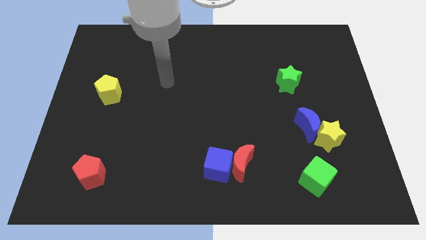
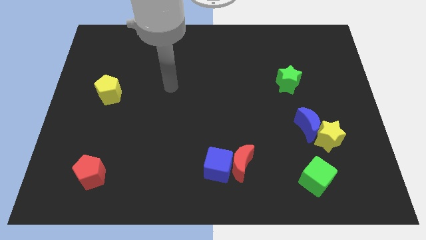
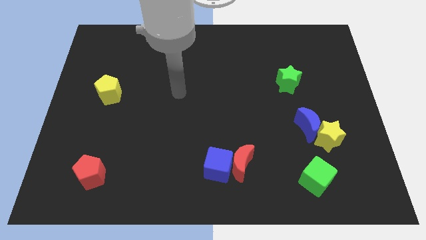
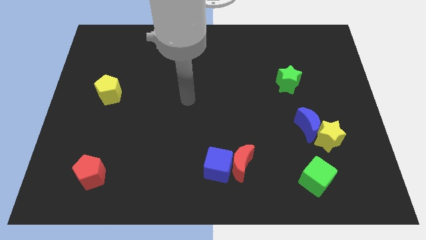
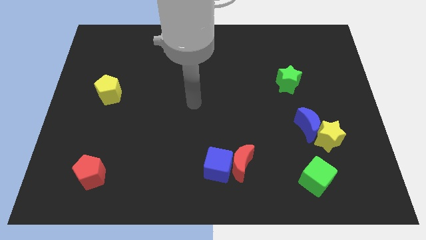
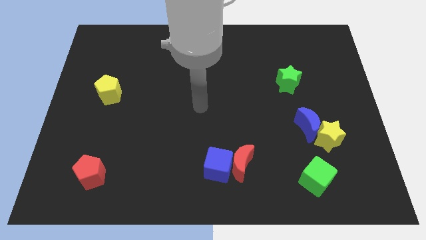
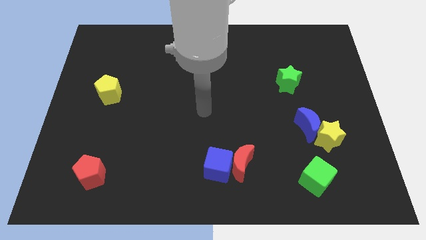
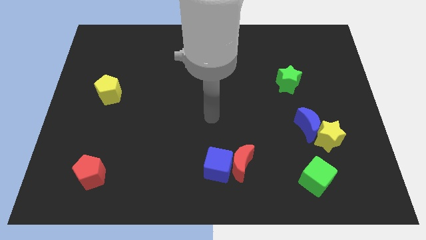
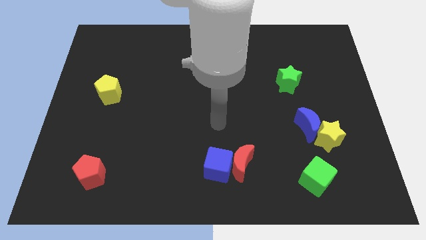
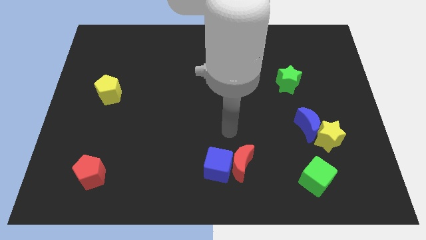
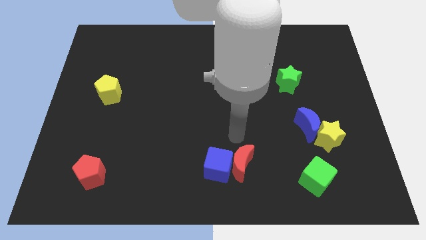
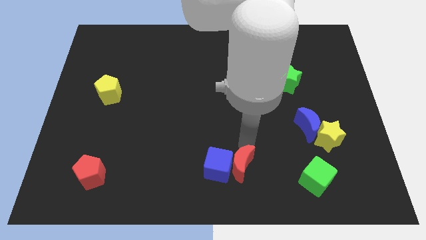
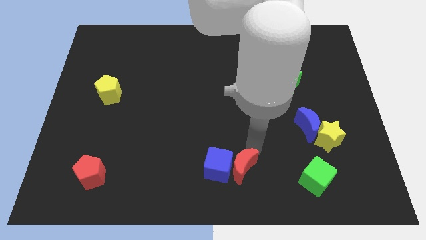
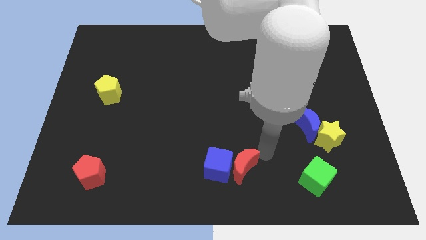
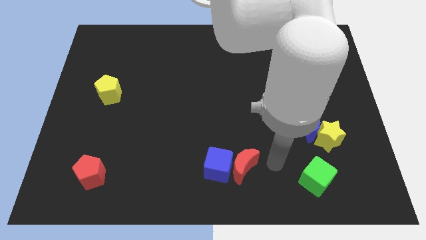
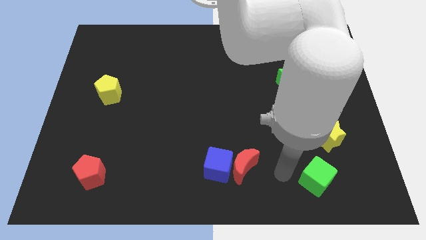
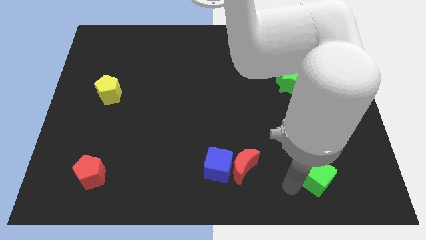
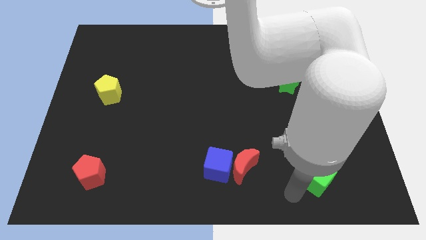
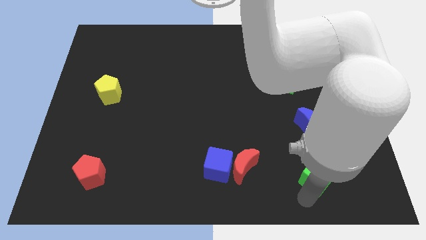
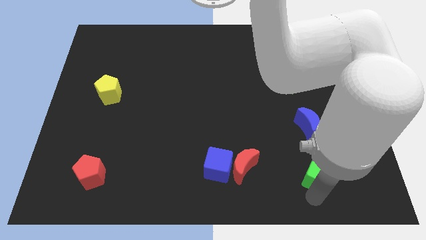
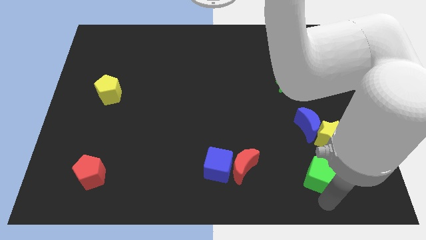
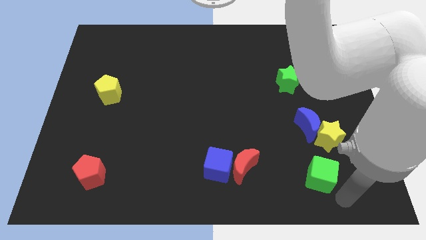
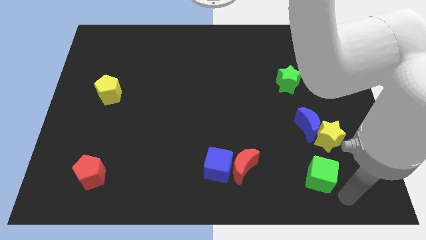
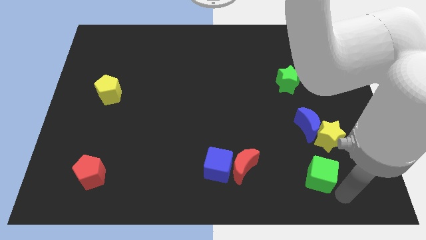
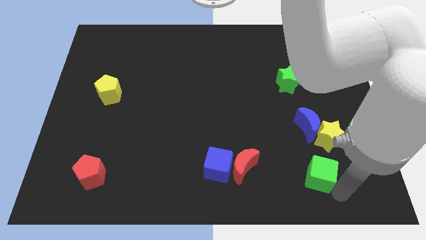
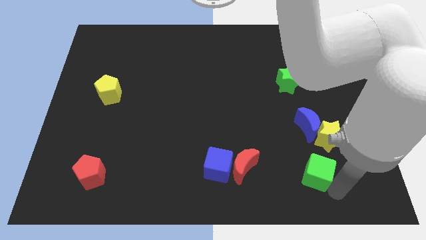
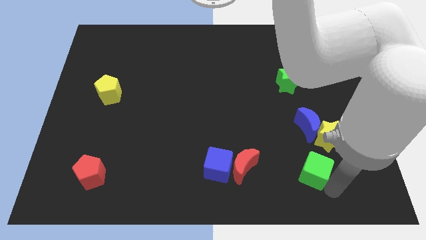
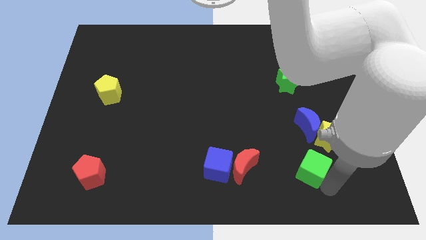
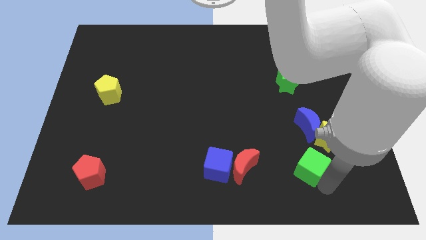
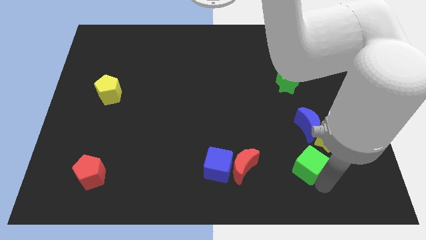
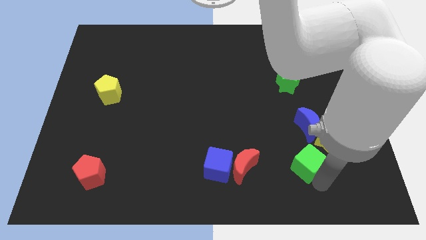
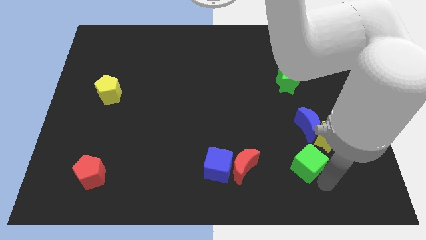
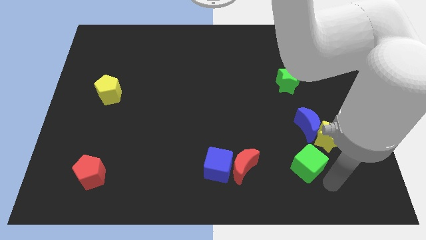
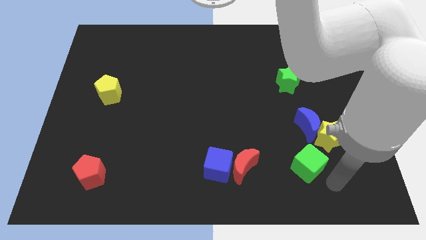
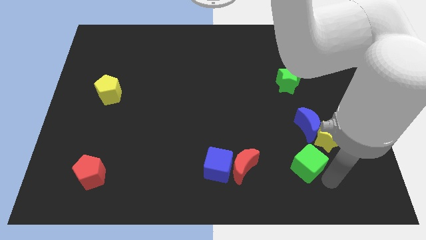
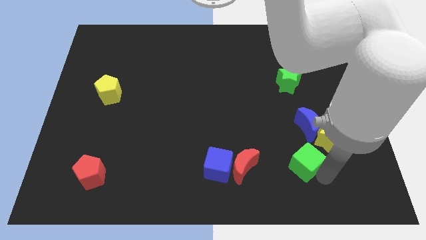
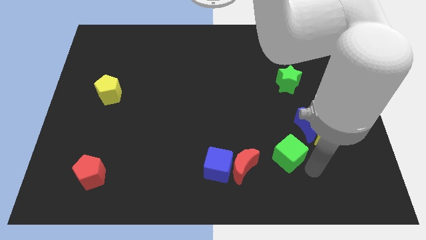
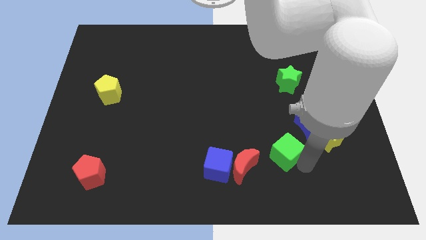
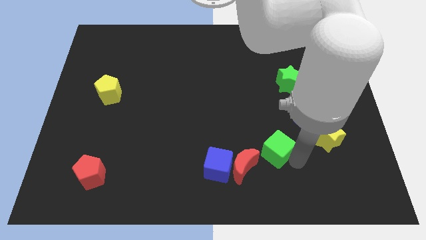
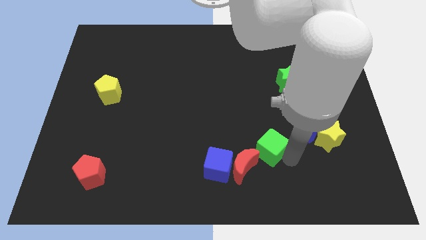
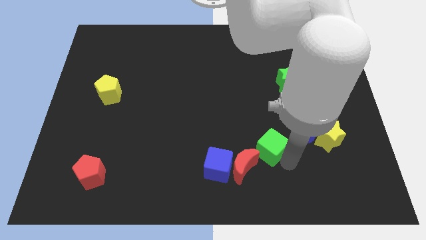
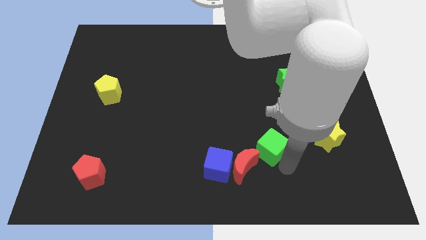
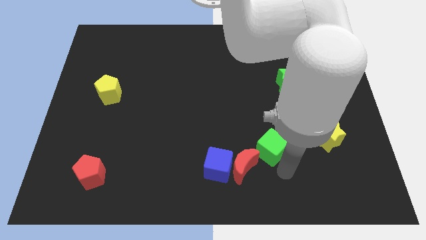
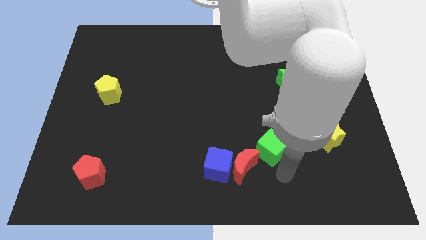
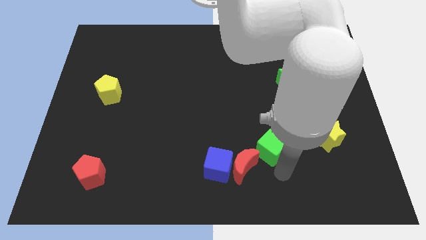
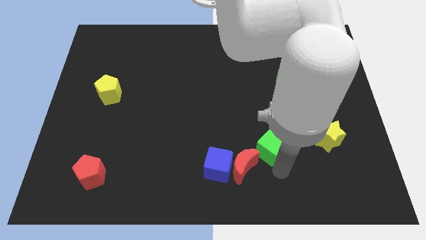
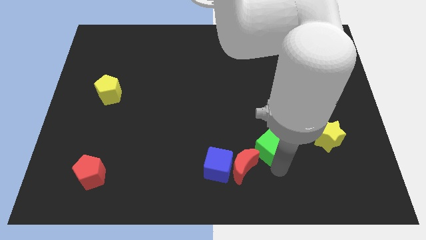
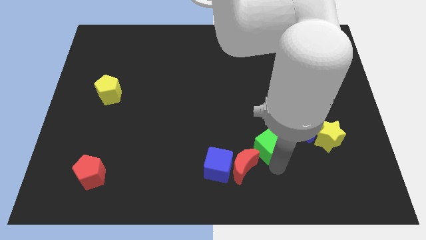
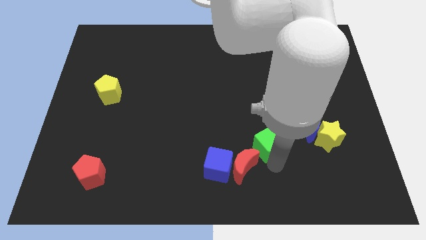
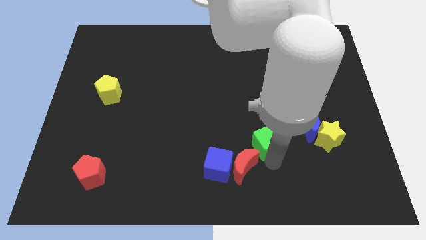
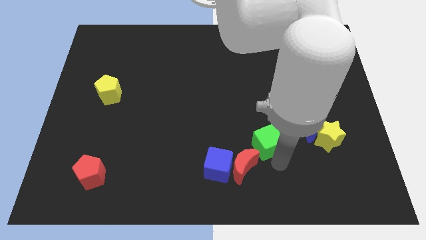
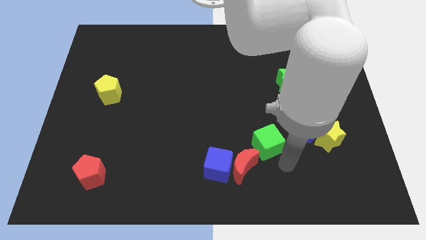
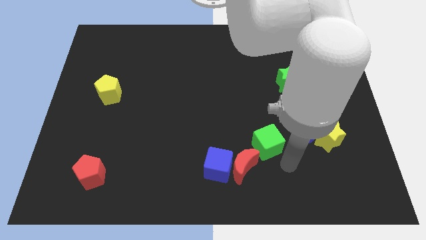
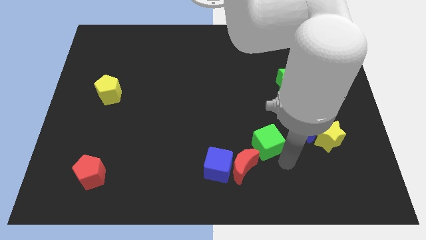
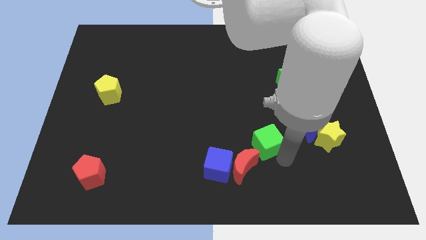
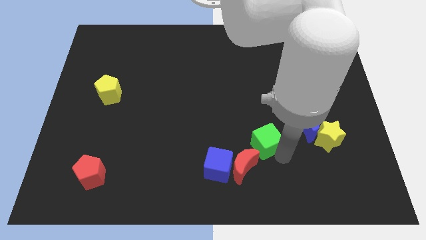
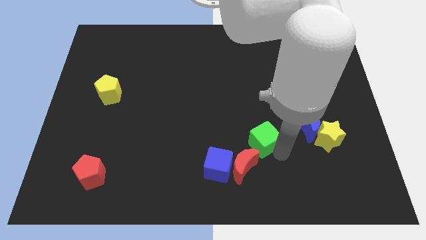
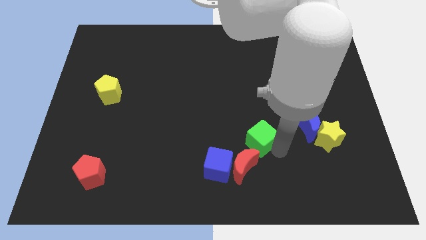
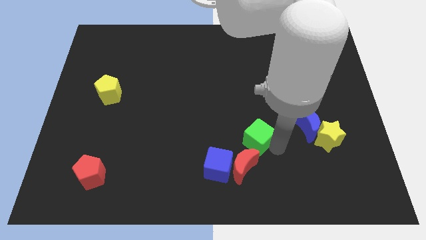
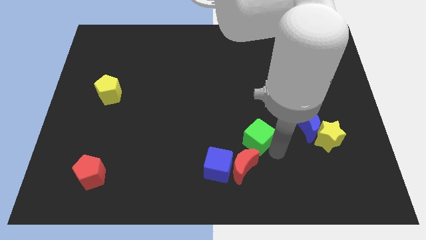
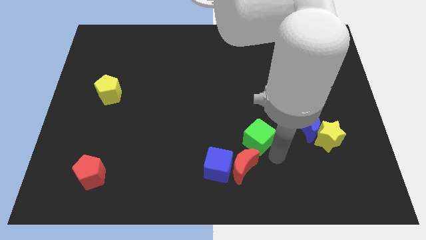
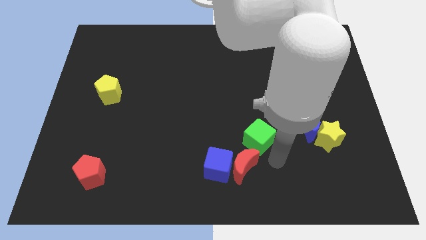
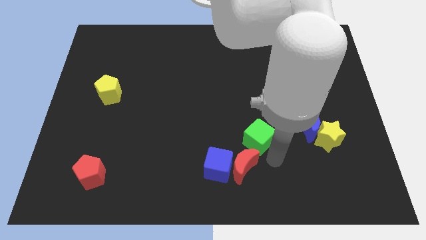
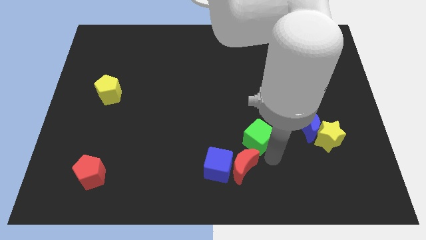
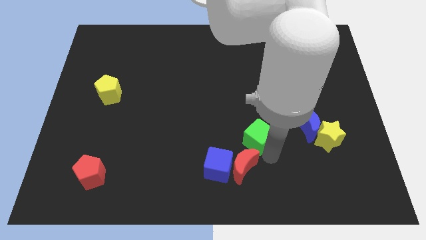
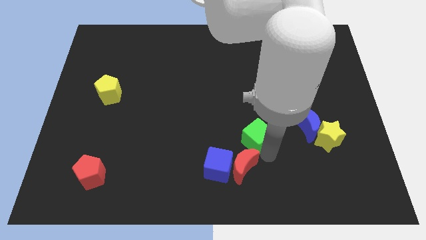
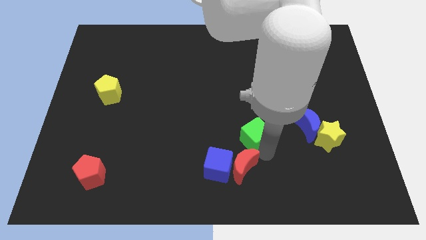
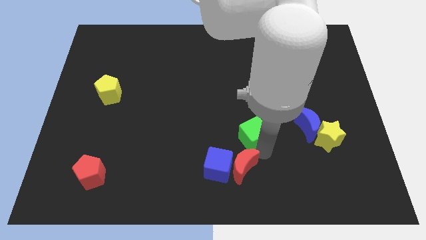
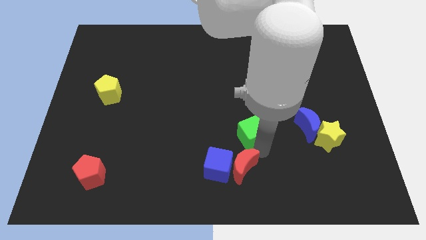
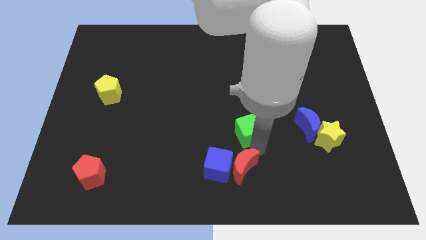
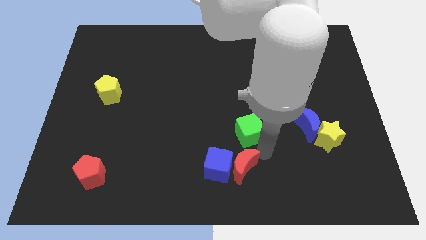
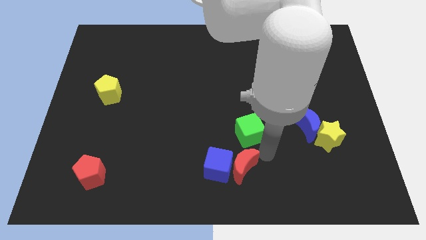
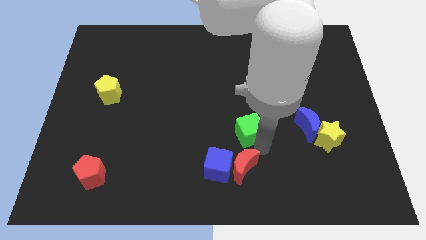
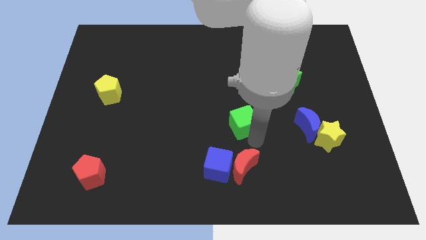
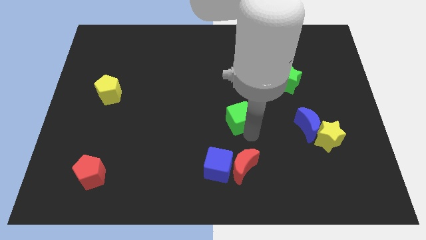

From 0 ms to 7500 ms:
push the green cube diagonally up and left

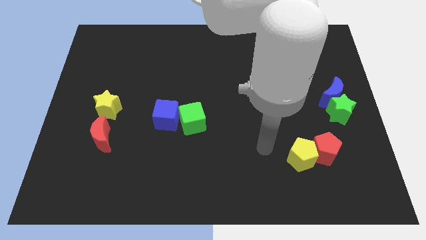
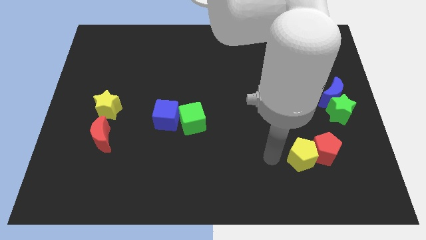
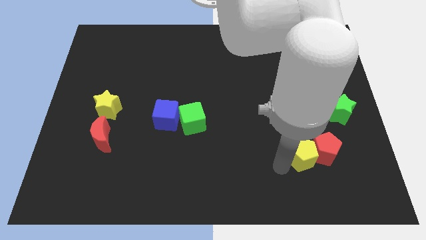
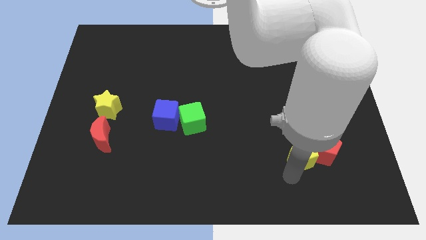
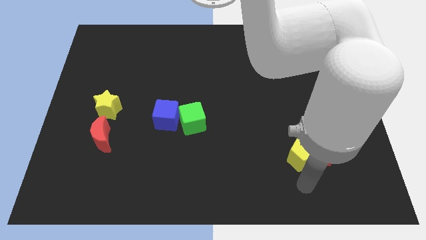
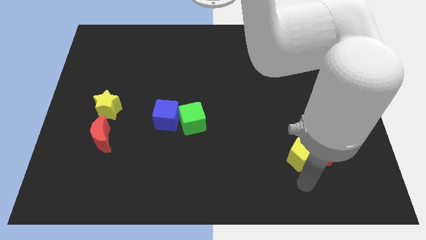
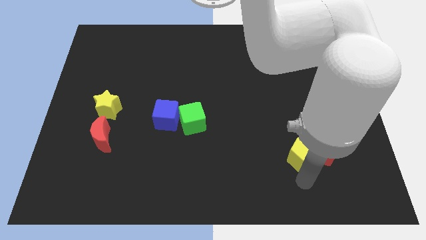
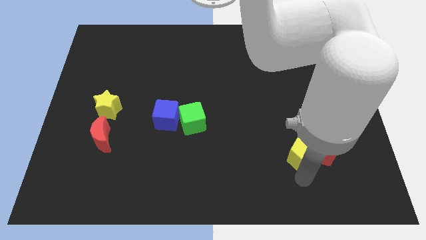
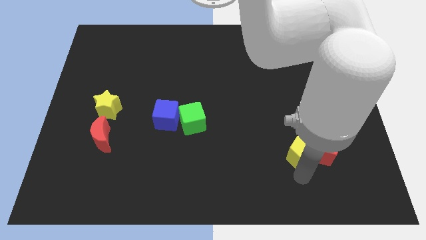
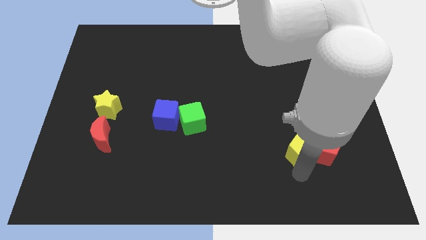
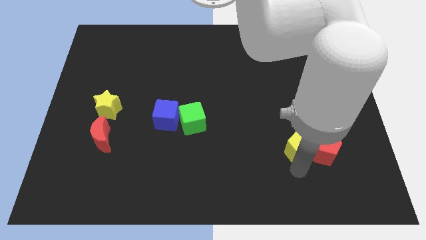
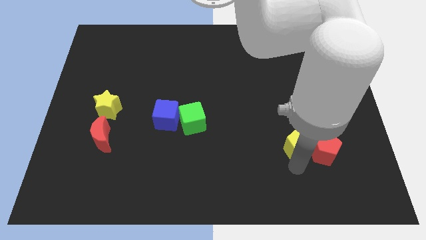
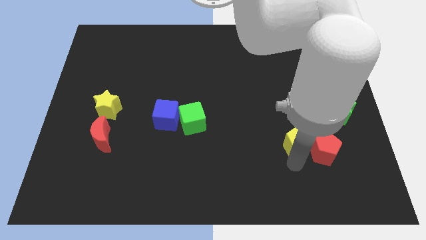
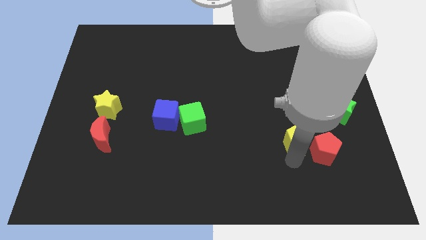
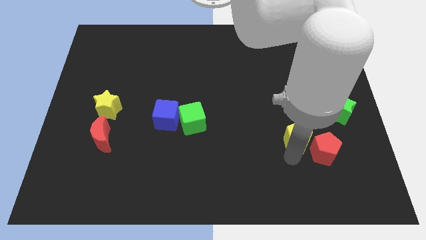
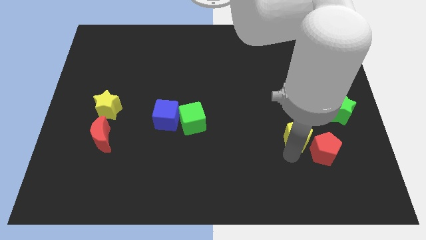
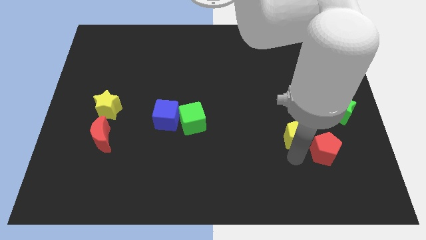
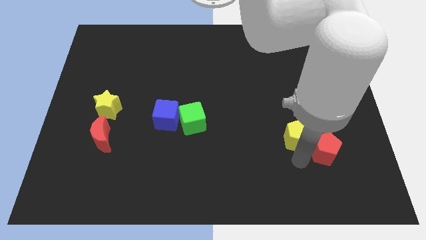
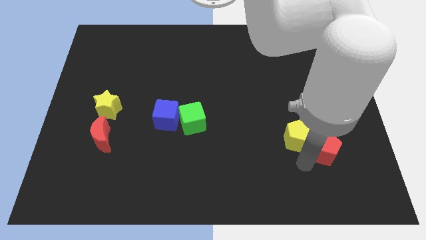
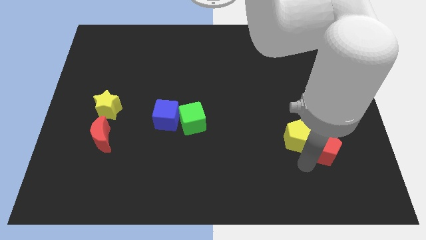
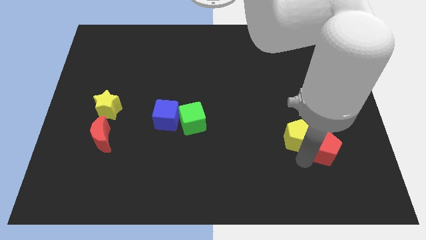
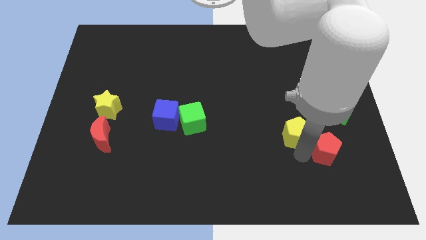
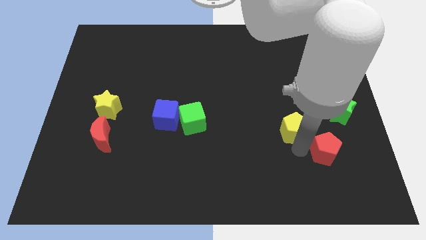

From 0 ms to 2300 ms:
push the yellow pentagon somewhat up
